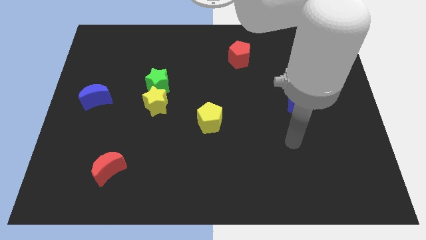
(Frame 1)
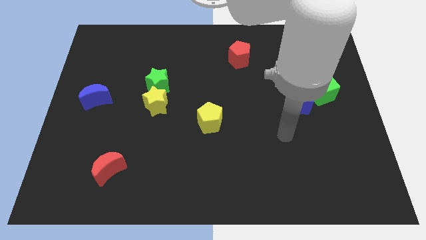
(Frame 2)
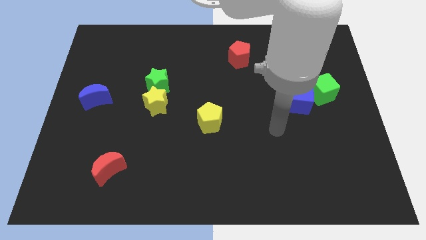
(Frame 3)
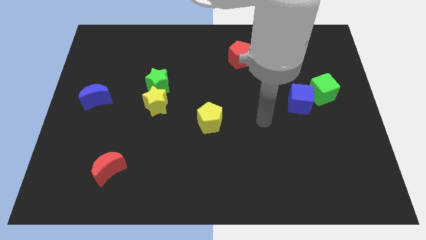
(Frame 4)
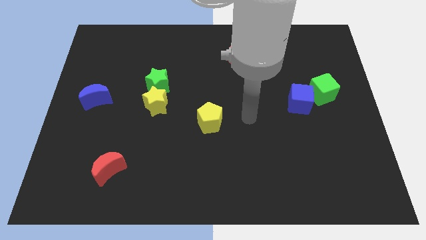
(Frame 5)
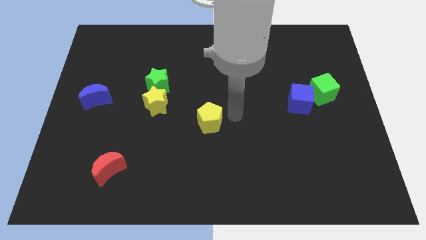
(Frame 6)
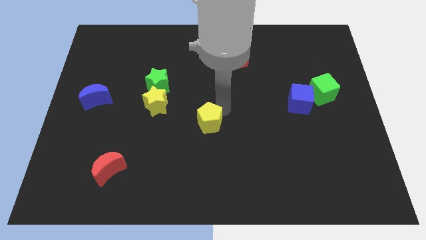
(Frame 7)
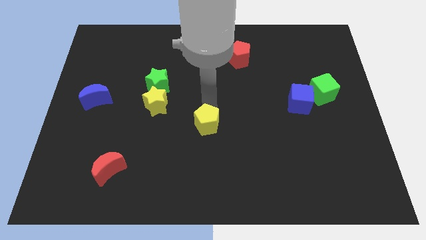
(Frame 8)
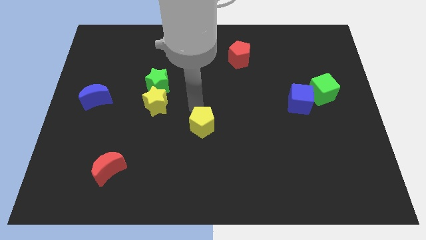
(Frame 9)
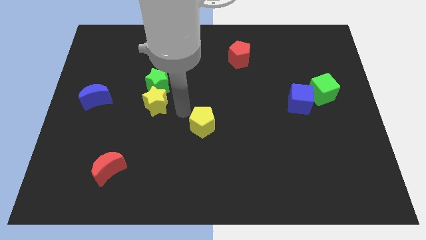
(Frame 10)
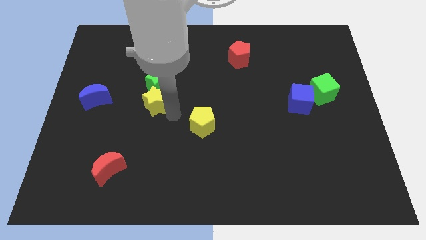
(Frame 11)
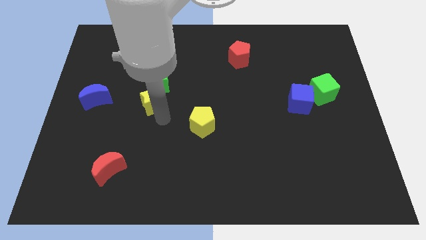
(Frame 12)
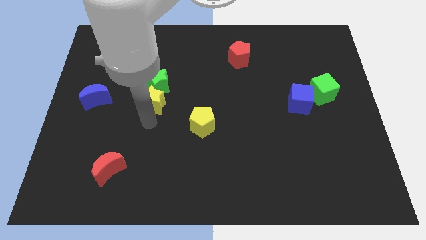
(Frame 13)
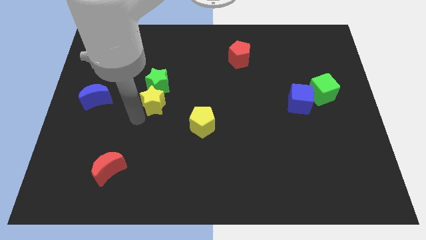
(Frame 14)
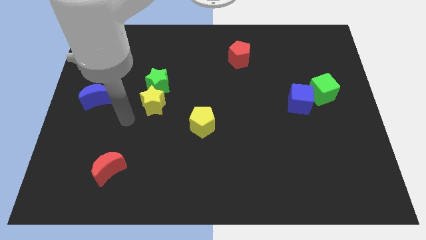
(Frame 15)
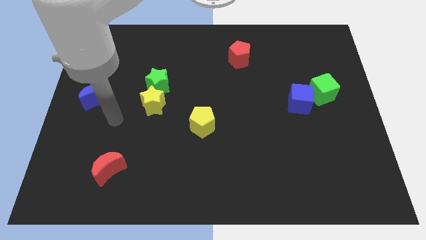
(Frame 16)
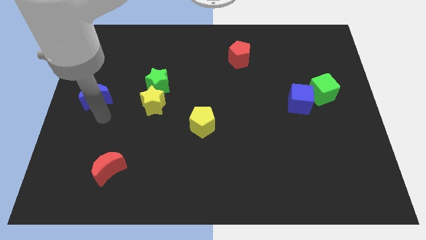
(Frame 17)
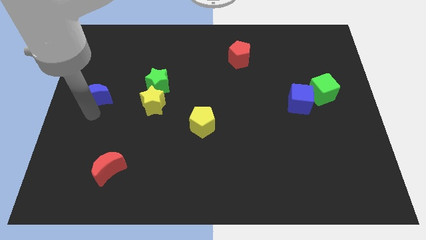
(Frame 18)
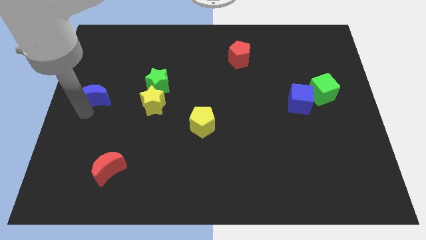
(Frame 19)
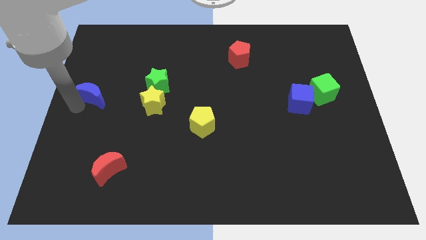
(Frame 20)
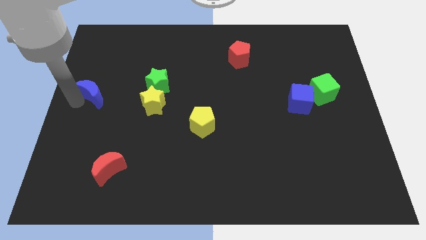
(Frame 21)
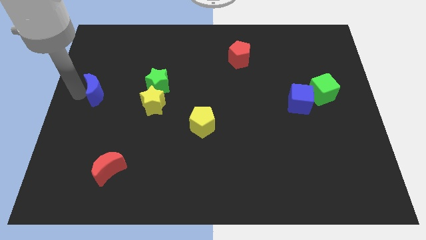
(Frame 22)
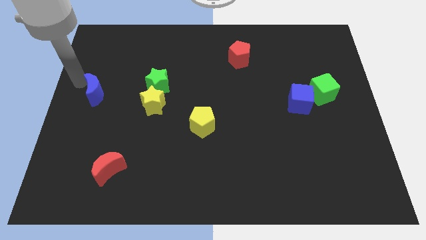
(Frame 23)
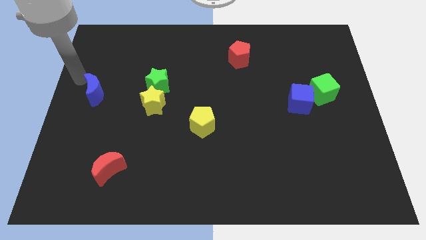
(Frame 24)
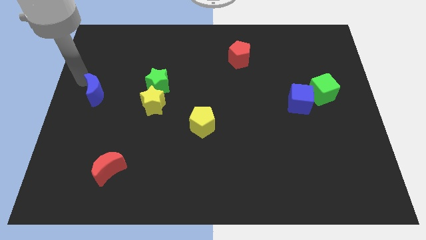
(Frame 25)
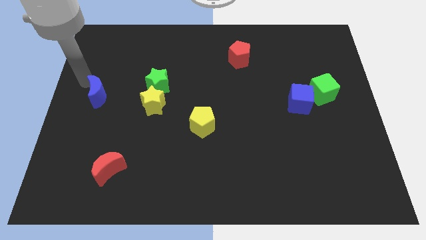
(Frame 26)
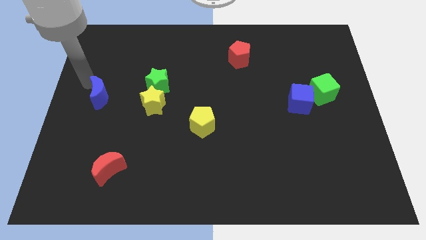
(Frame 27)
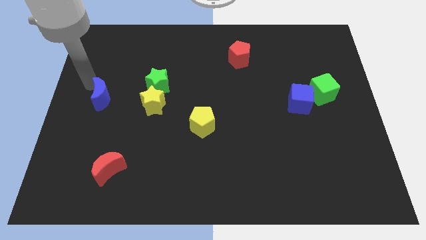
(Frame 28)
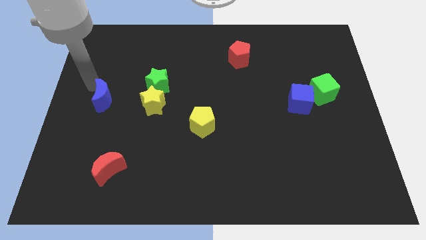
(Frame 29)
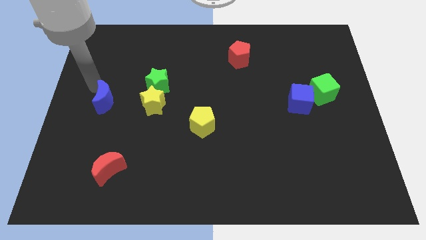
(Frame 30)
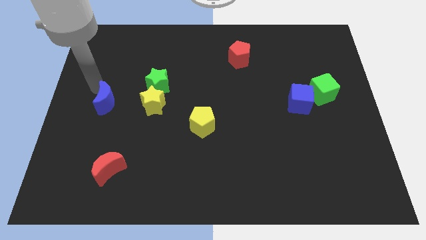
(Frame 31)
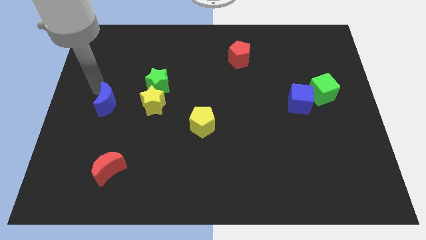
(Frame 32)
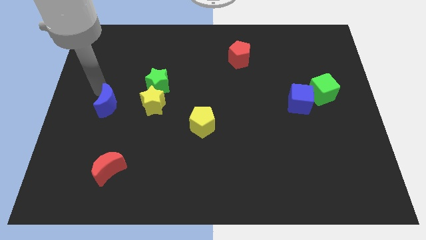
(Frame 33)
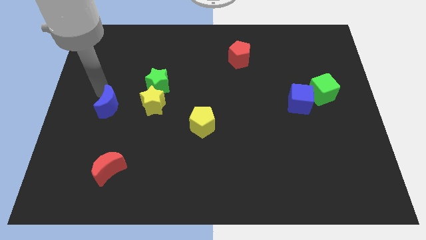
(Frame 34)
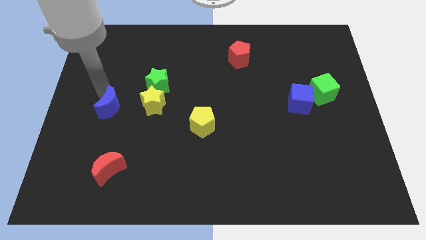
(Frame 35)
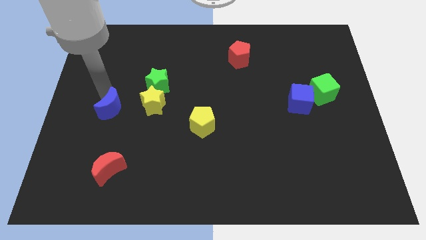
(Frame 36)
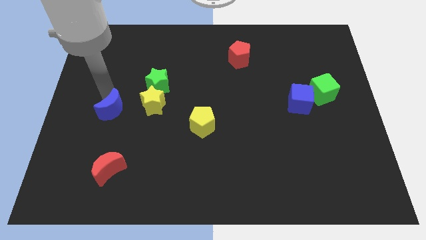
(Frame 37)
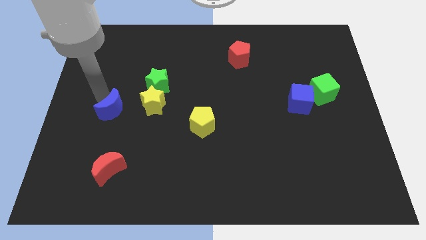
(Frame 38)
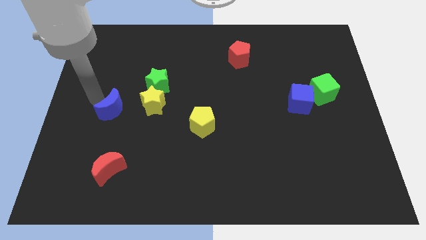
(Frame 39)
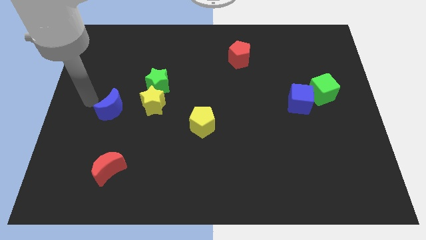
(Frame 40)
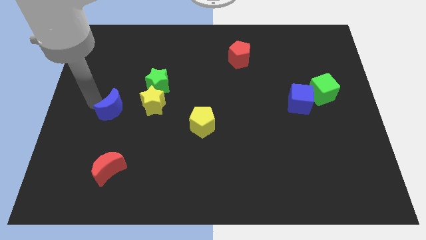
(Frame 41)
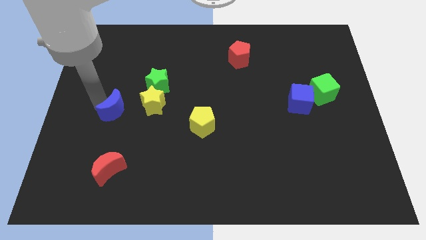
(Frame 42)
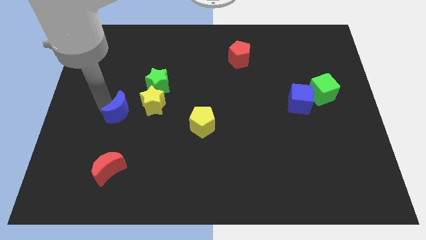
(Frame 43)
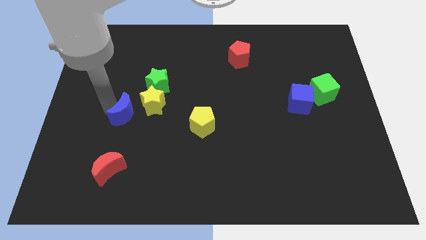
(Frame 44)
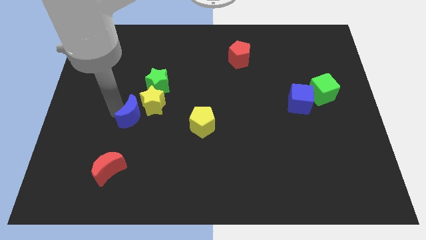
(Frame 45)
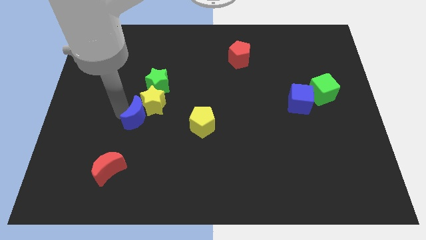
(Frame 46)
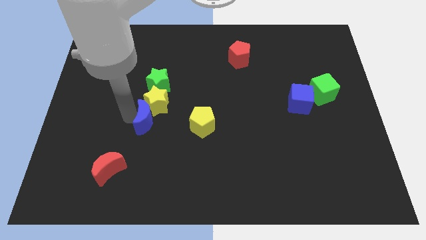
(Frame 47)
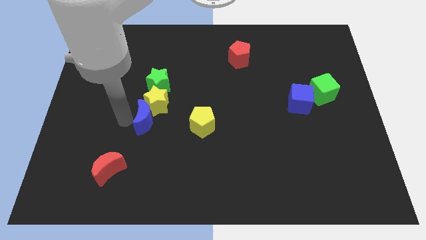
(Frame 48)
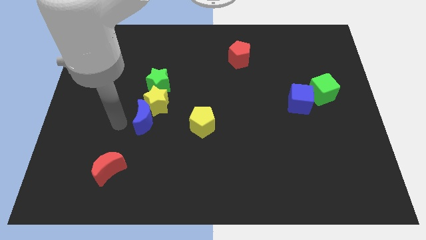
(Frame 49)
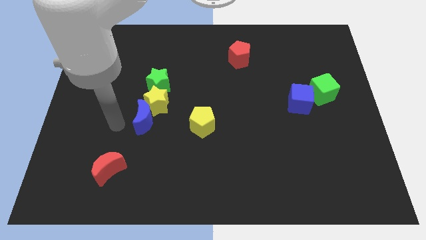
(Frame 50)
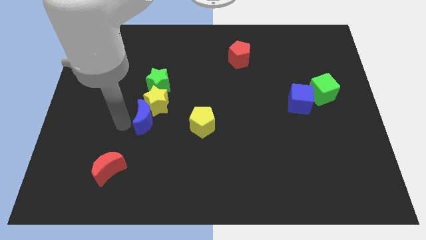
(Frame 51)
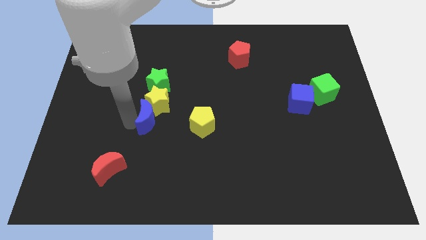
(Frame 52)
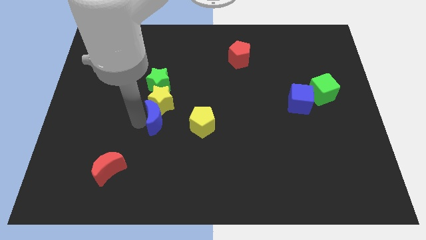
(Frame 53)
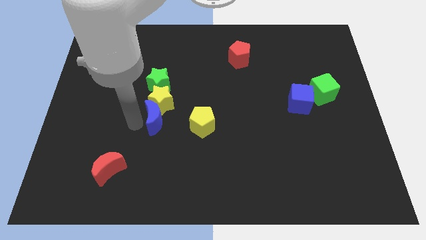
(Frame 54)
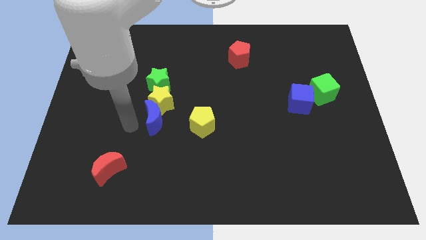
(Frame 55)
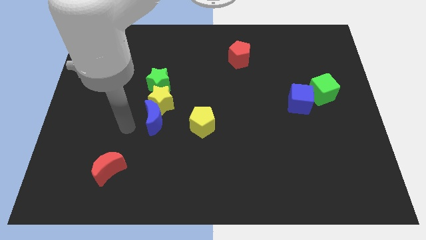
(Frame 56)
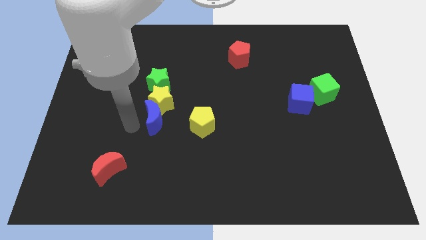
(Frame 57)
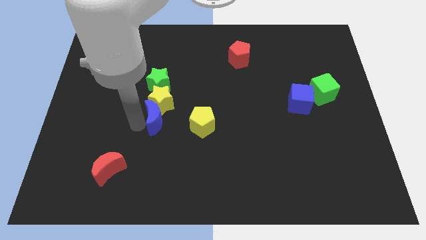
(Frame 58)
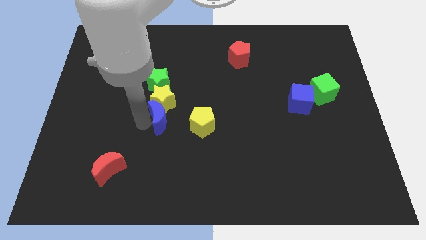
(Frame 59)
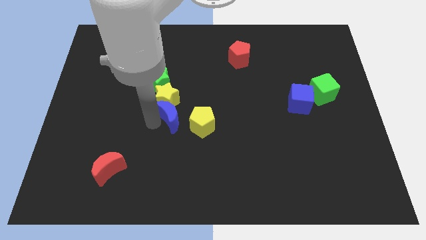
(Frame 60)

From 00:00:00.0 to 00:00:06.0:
put the blue moon to the middle of the board
